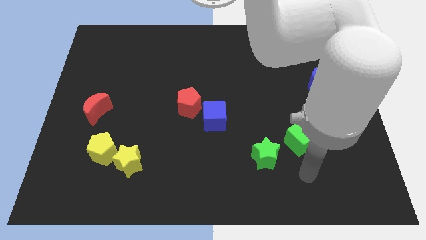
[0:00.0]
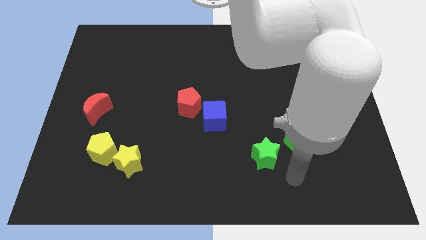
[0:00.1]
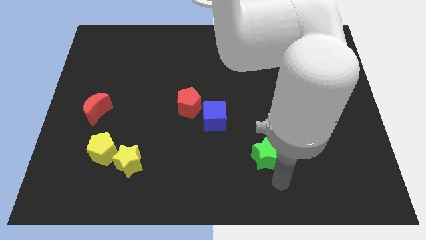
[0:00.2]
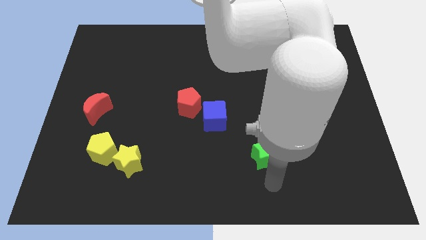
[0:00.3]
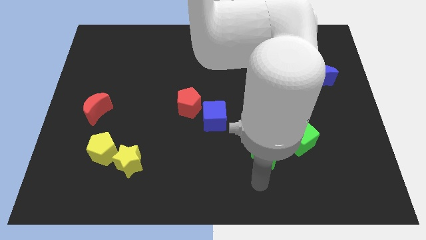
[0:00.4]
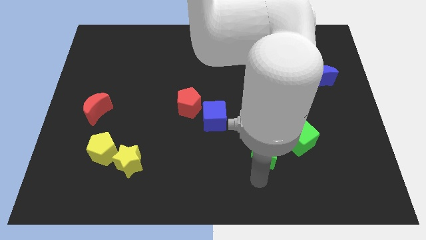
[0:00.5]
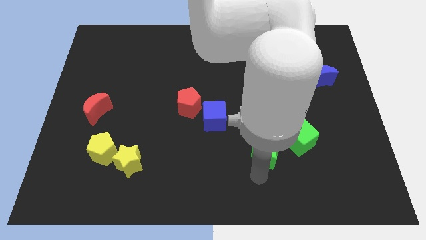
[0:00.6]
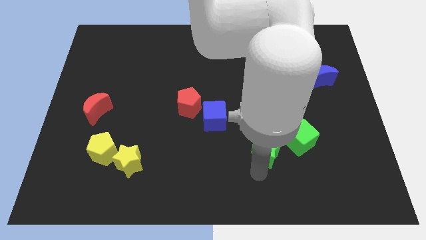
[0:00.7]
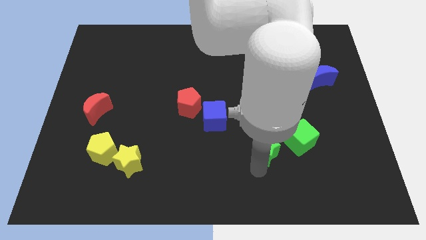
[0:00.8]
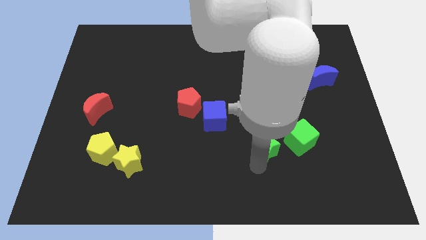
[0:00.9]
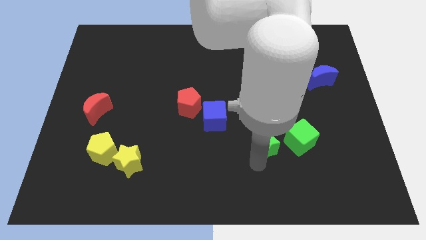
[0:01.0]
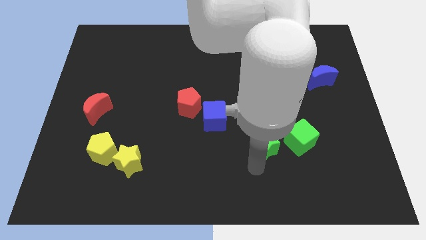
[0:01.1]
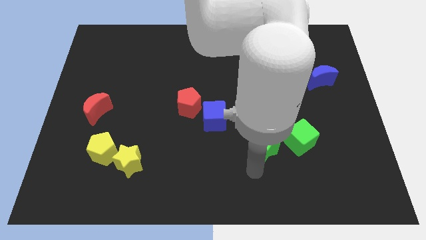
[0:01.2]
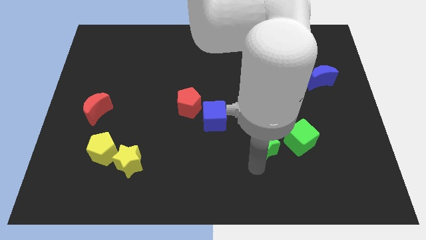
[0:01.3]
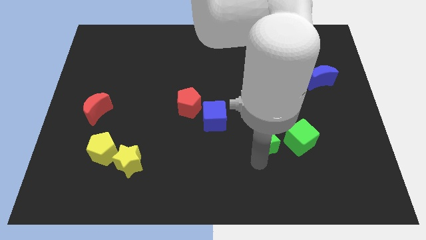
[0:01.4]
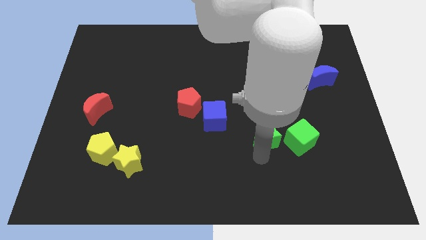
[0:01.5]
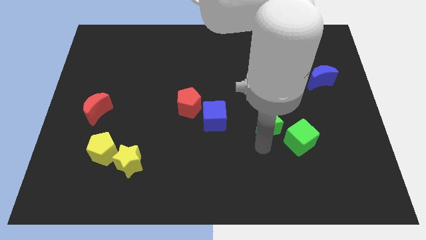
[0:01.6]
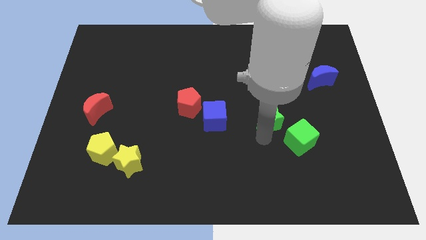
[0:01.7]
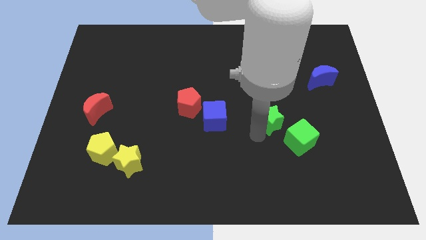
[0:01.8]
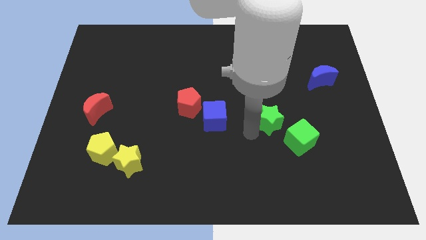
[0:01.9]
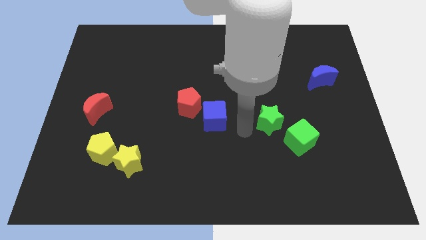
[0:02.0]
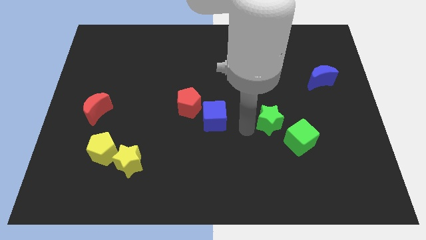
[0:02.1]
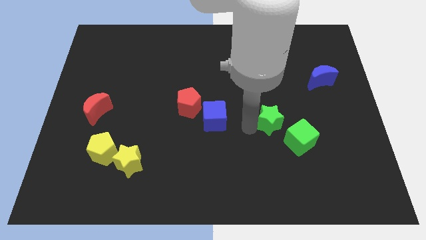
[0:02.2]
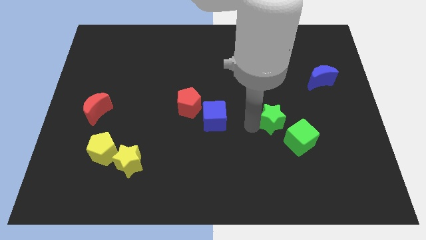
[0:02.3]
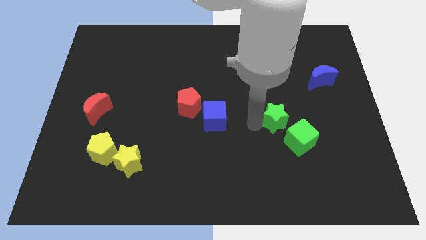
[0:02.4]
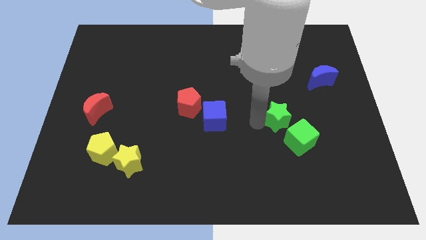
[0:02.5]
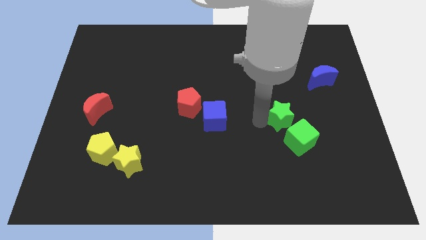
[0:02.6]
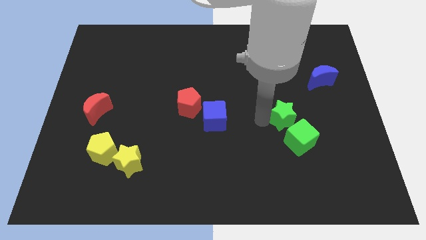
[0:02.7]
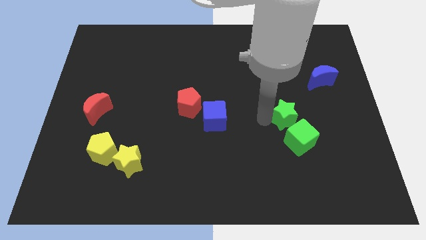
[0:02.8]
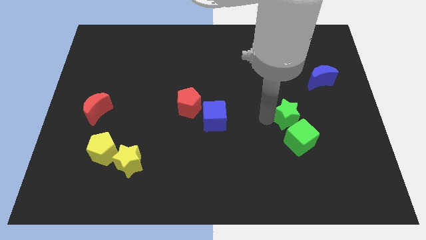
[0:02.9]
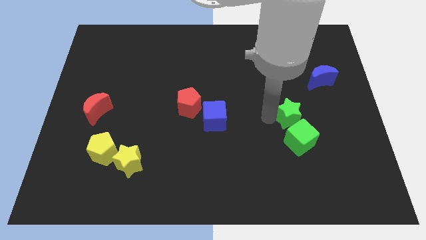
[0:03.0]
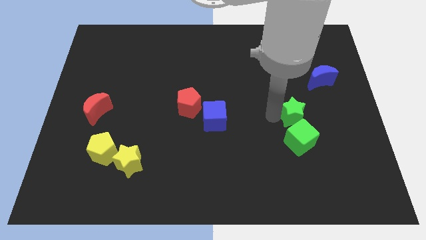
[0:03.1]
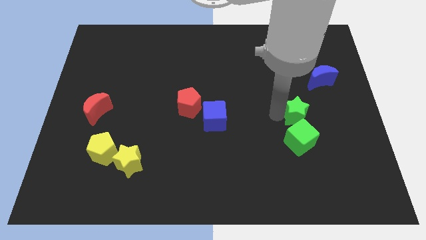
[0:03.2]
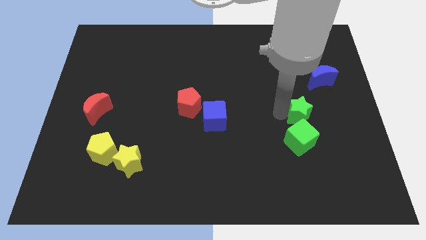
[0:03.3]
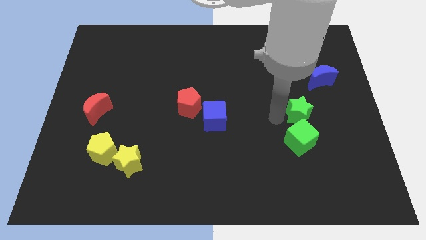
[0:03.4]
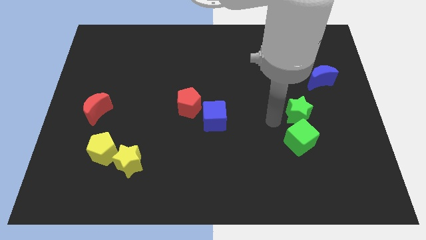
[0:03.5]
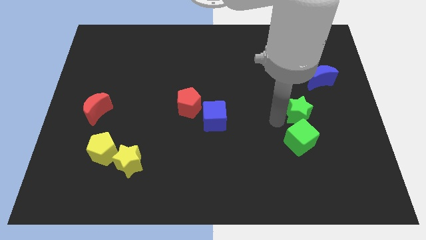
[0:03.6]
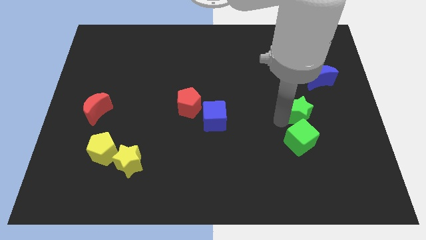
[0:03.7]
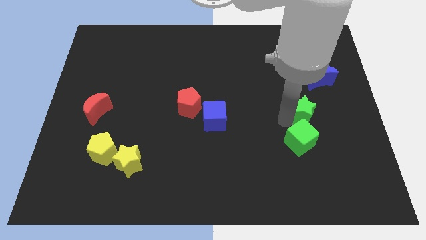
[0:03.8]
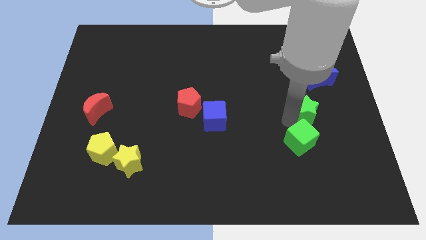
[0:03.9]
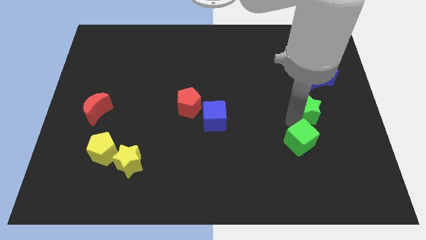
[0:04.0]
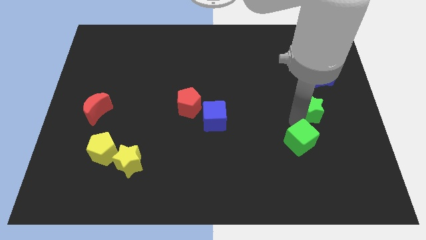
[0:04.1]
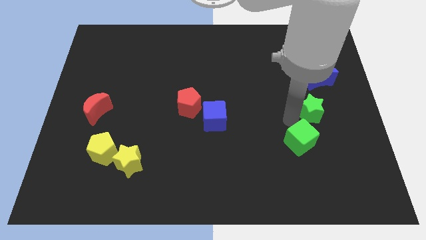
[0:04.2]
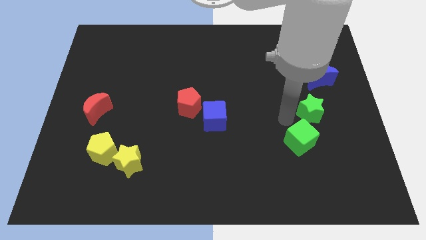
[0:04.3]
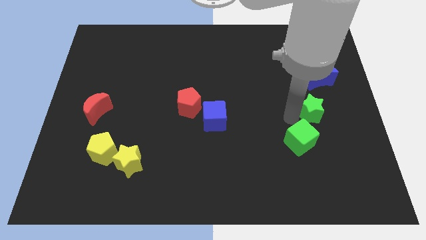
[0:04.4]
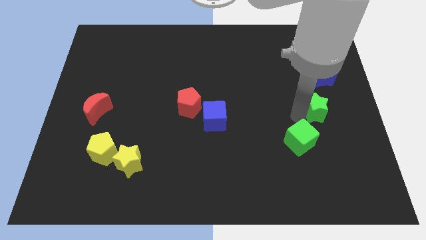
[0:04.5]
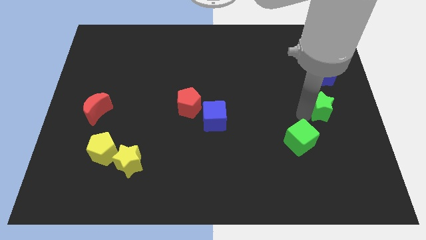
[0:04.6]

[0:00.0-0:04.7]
put the green star to the right side

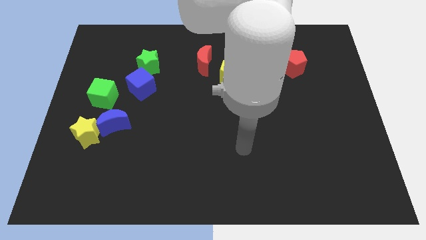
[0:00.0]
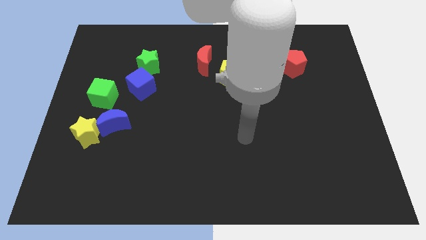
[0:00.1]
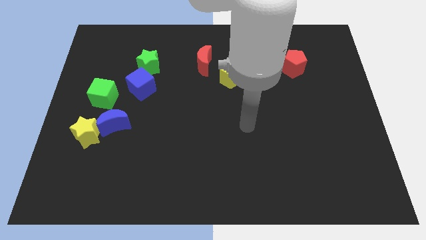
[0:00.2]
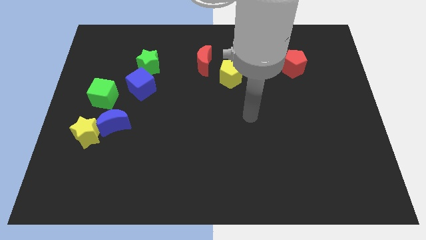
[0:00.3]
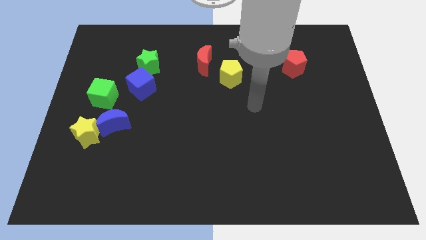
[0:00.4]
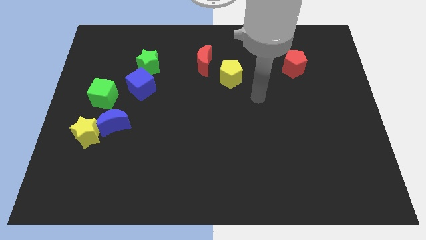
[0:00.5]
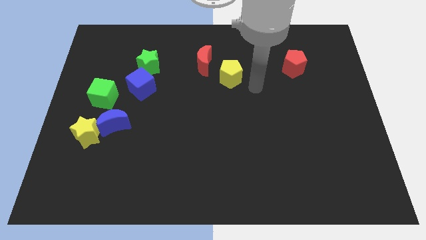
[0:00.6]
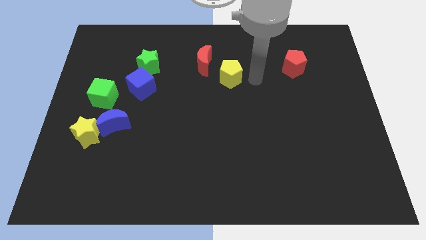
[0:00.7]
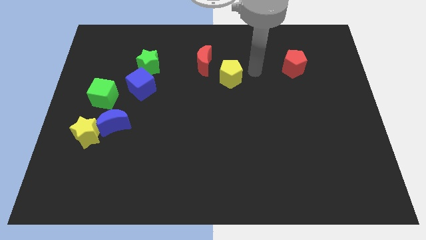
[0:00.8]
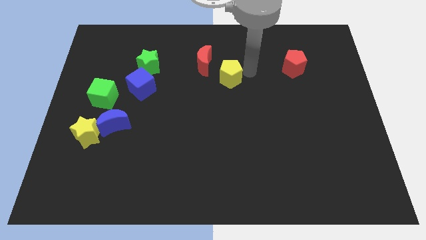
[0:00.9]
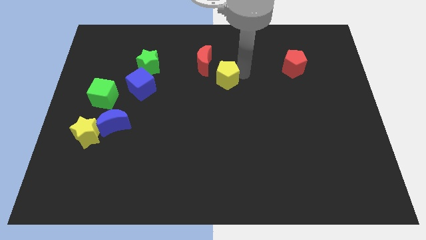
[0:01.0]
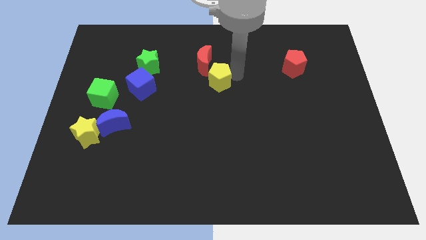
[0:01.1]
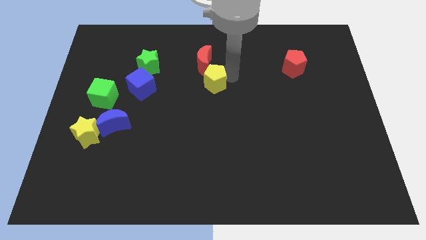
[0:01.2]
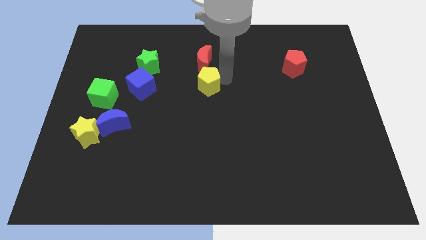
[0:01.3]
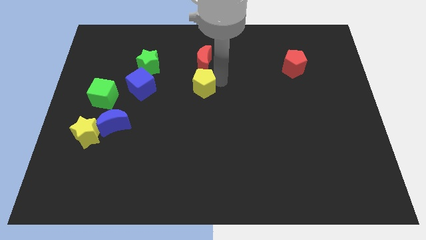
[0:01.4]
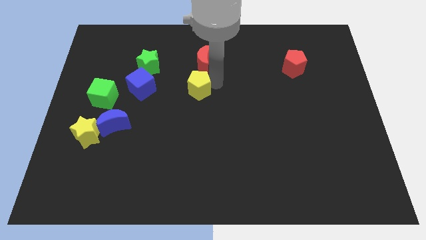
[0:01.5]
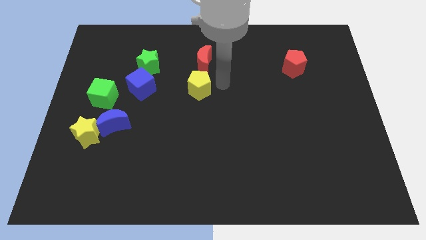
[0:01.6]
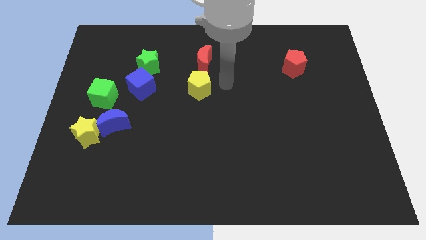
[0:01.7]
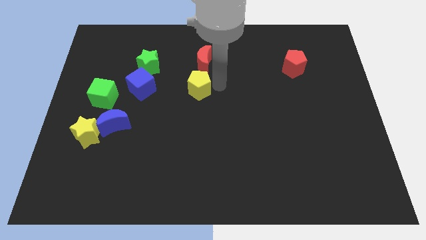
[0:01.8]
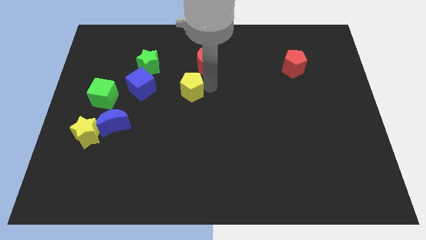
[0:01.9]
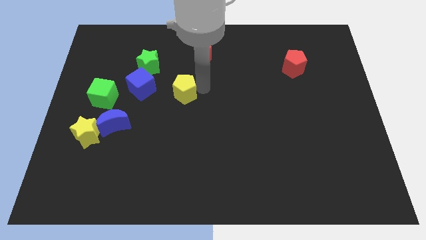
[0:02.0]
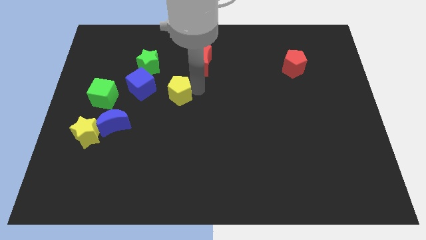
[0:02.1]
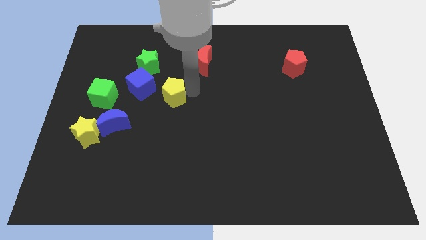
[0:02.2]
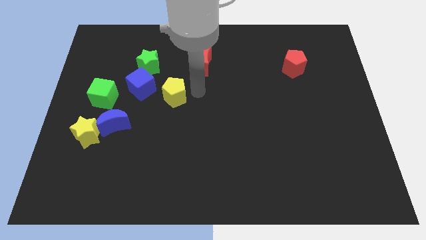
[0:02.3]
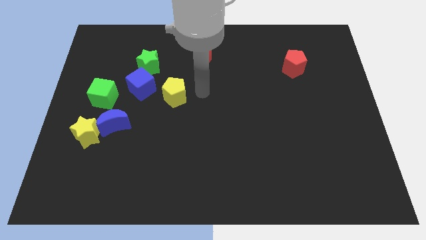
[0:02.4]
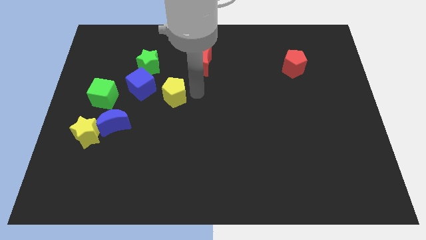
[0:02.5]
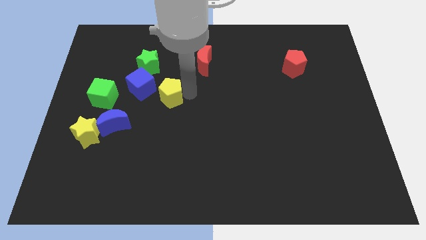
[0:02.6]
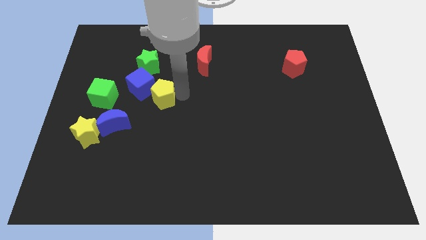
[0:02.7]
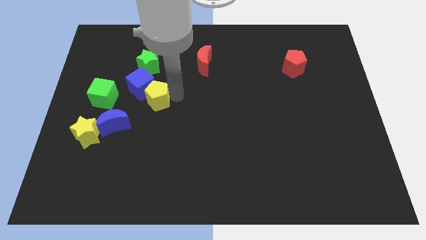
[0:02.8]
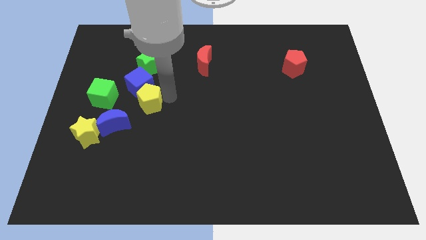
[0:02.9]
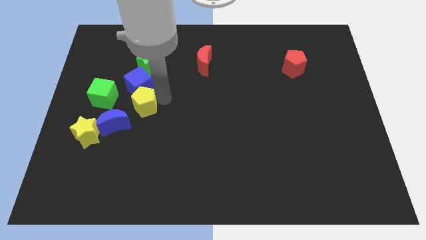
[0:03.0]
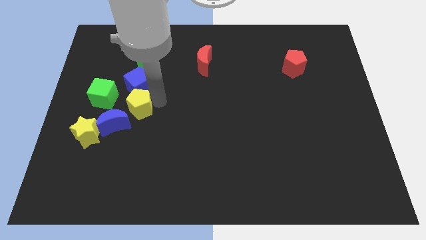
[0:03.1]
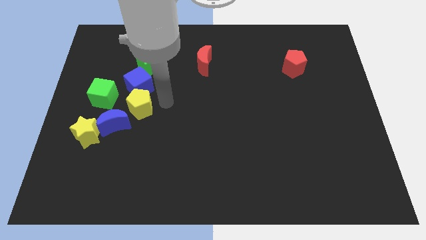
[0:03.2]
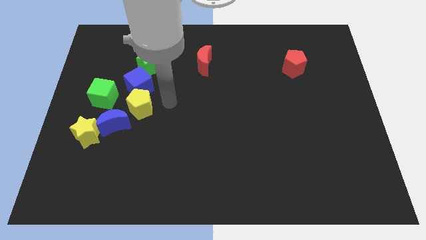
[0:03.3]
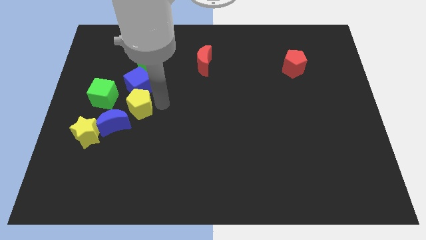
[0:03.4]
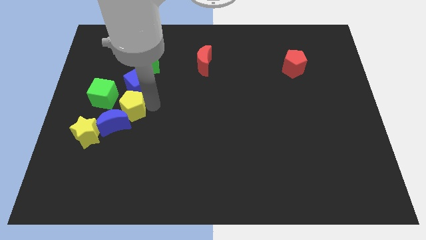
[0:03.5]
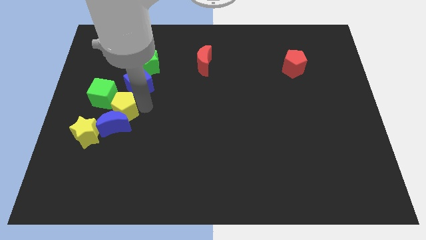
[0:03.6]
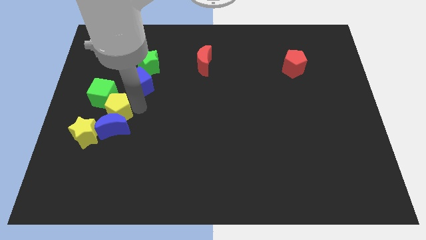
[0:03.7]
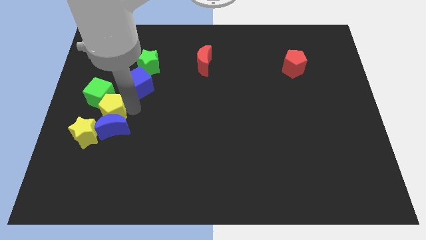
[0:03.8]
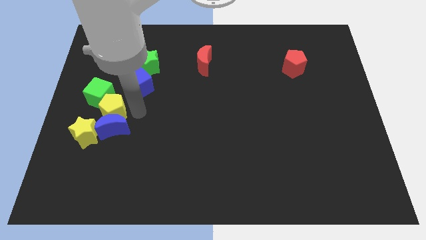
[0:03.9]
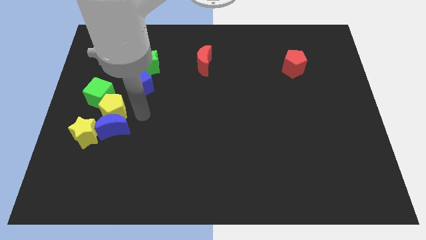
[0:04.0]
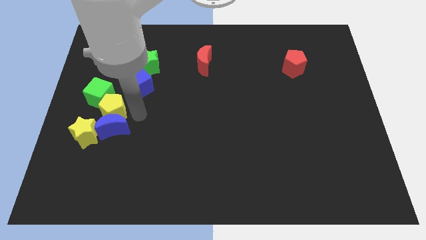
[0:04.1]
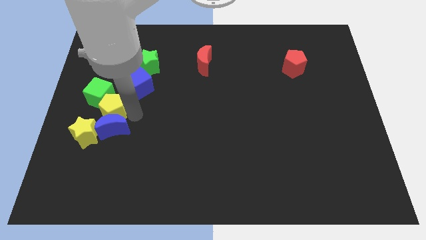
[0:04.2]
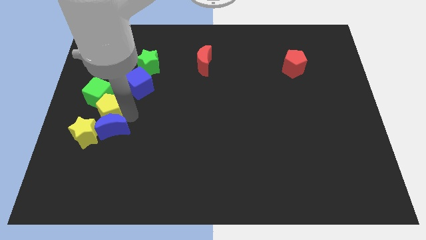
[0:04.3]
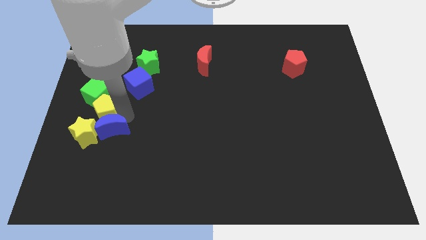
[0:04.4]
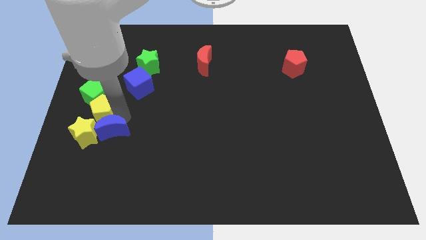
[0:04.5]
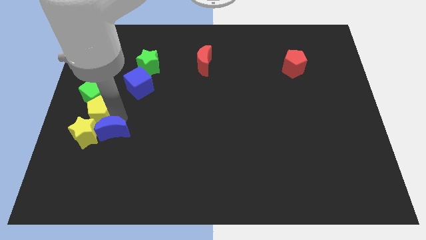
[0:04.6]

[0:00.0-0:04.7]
slide the yellow pentagon to the center left
